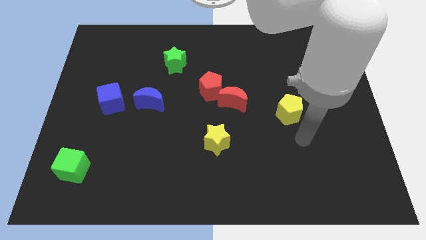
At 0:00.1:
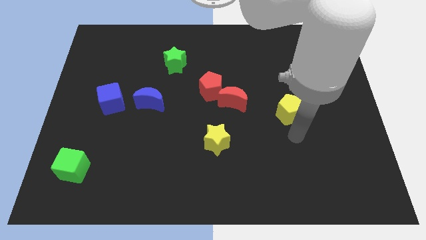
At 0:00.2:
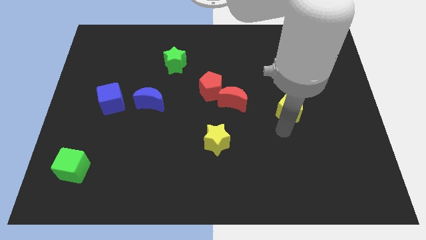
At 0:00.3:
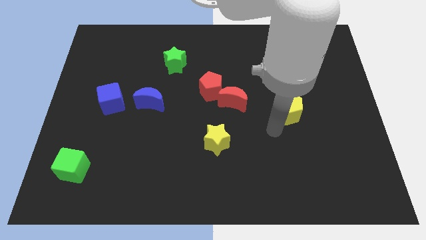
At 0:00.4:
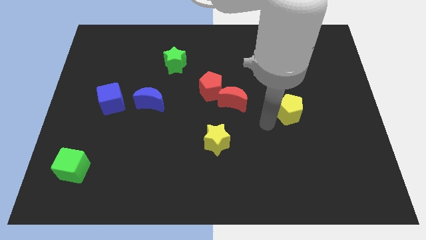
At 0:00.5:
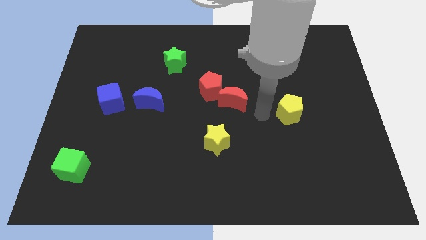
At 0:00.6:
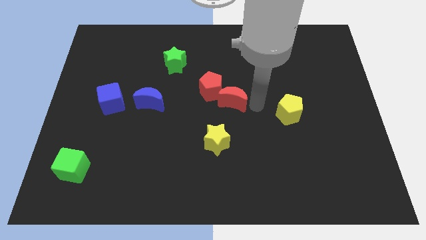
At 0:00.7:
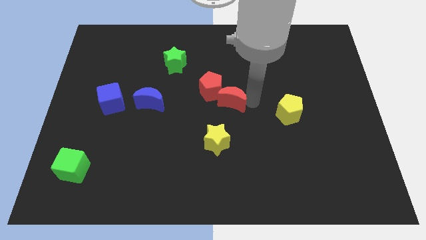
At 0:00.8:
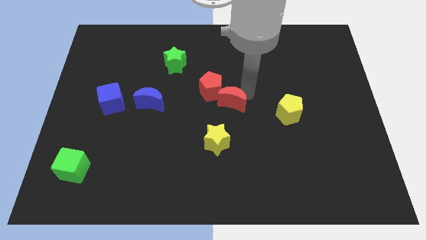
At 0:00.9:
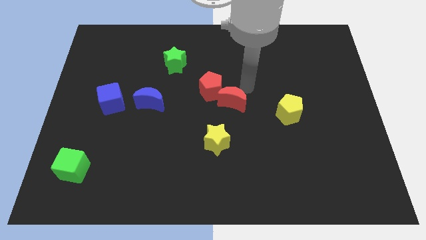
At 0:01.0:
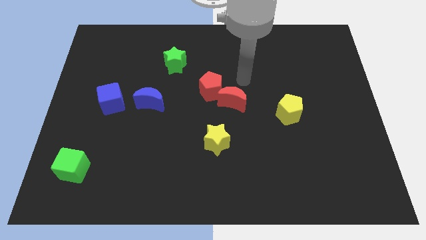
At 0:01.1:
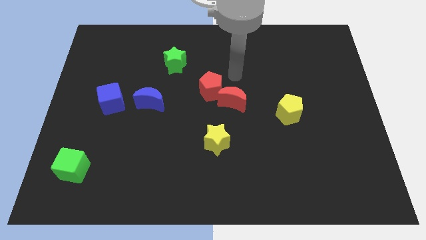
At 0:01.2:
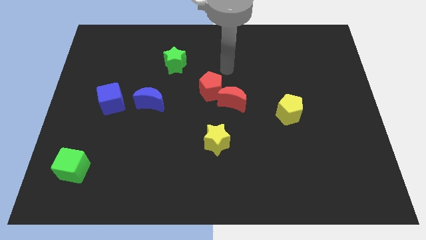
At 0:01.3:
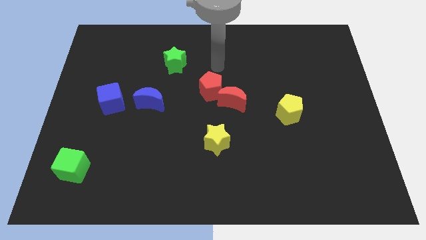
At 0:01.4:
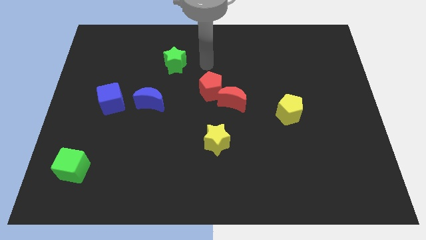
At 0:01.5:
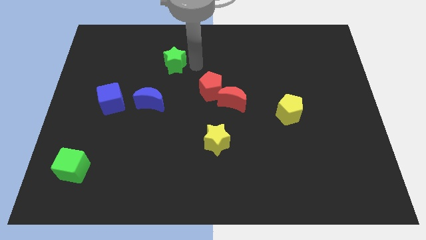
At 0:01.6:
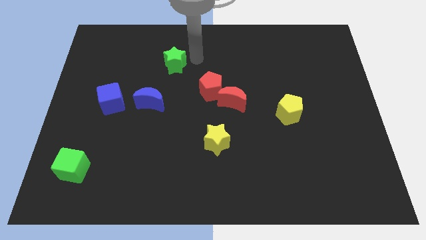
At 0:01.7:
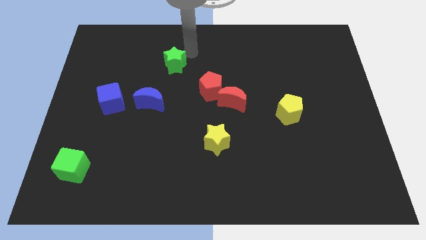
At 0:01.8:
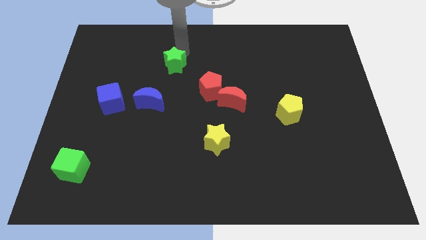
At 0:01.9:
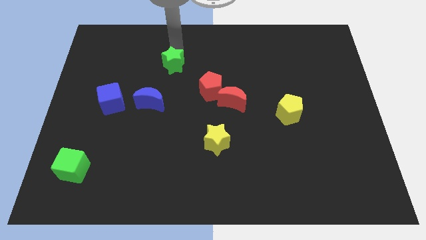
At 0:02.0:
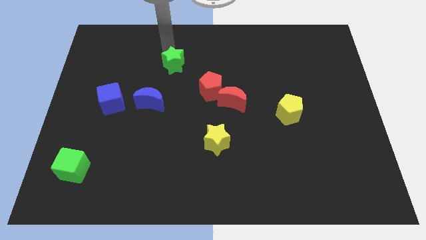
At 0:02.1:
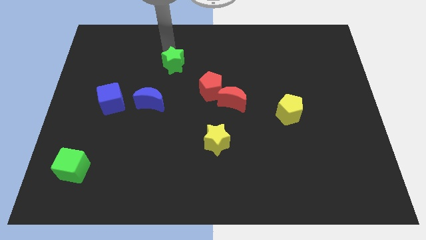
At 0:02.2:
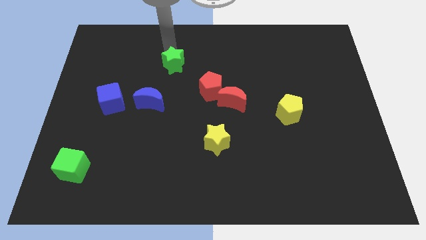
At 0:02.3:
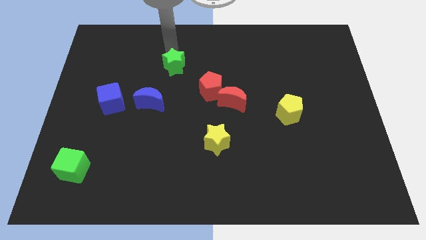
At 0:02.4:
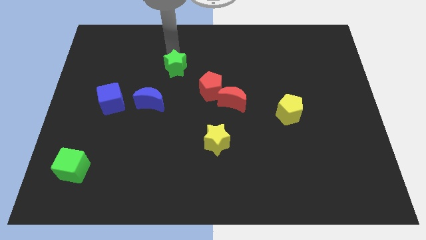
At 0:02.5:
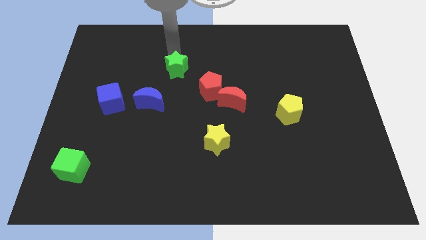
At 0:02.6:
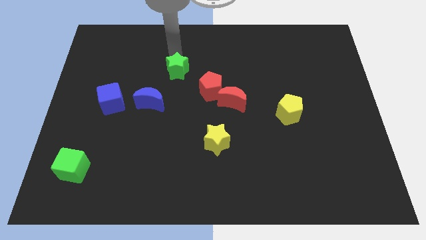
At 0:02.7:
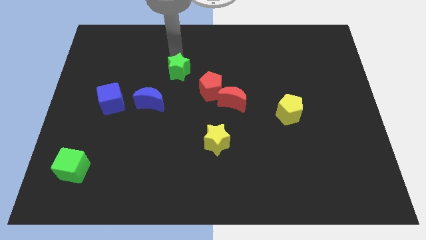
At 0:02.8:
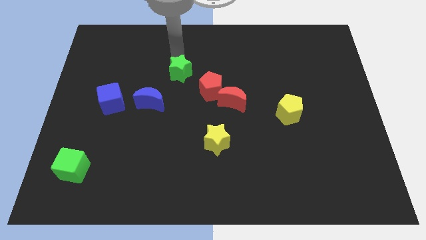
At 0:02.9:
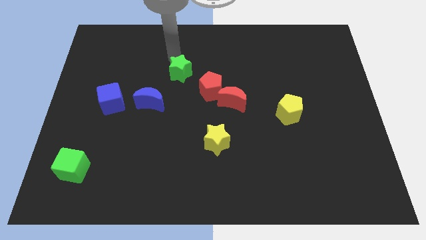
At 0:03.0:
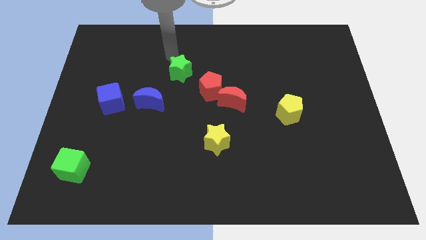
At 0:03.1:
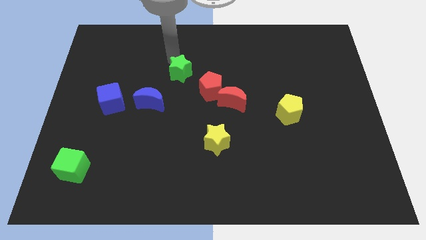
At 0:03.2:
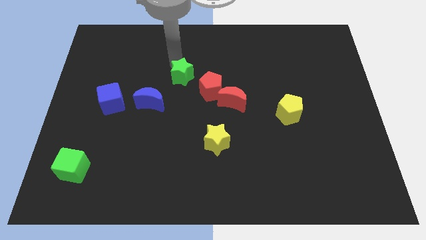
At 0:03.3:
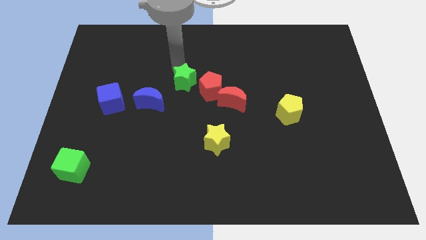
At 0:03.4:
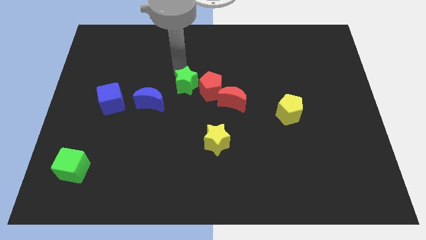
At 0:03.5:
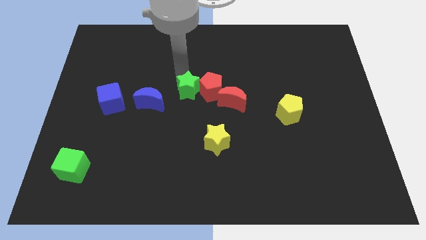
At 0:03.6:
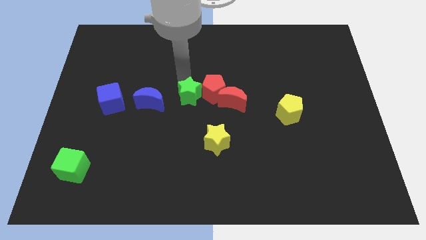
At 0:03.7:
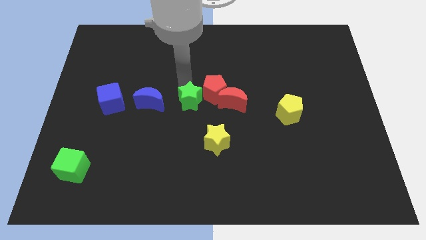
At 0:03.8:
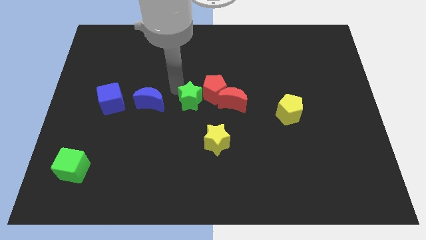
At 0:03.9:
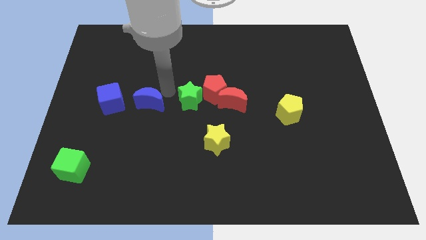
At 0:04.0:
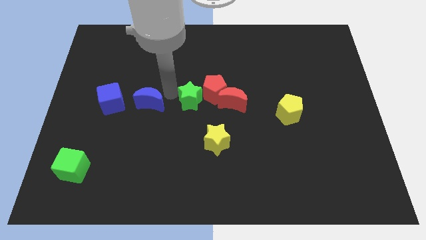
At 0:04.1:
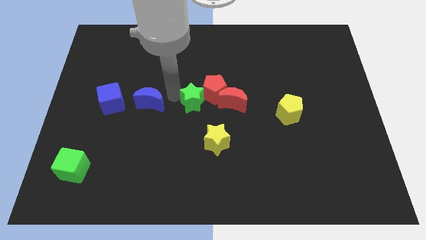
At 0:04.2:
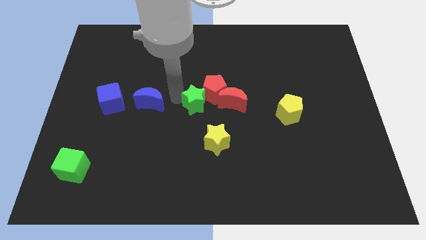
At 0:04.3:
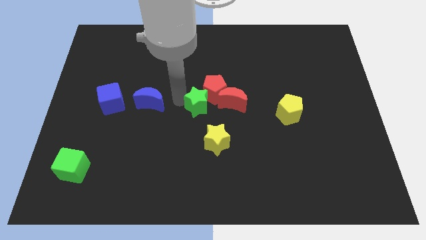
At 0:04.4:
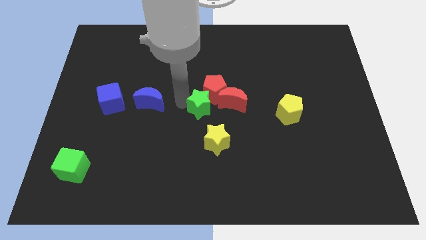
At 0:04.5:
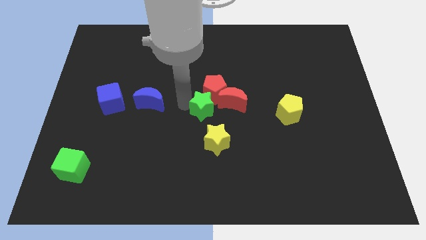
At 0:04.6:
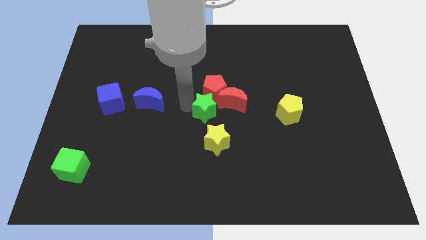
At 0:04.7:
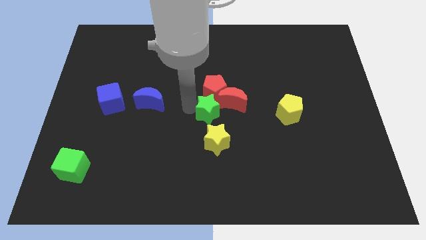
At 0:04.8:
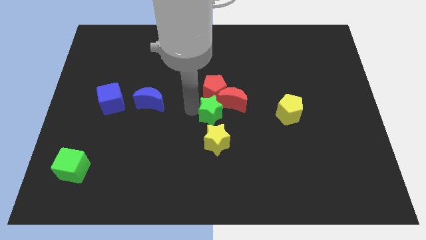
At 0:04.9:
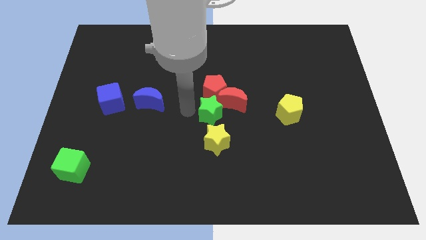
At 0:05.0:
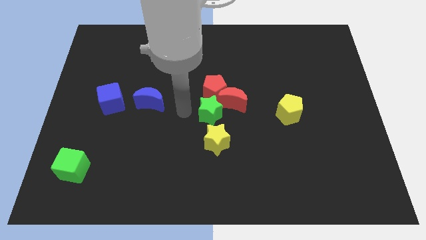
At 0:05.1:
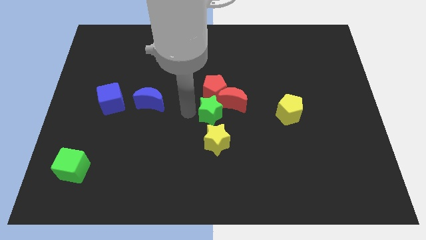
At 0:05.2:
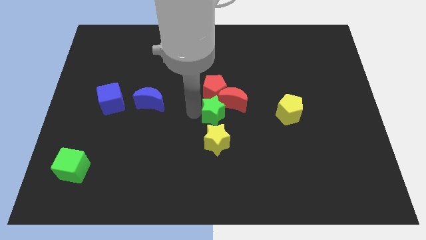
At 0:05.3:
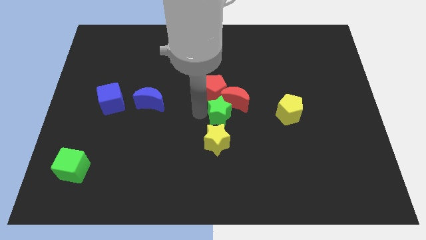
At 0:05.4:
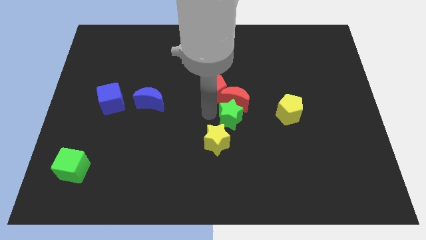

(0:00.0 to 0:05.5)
put the green star to the bottom right side of the red moon

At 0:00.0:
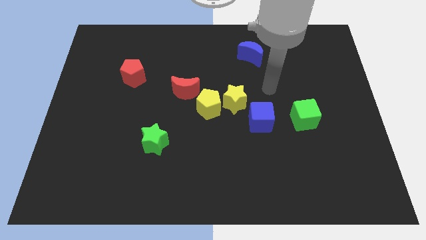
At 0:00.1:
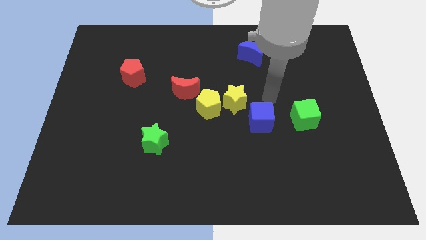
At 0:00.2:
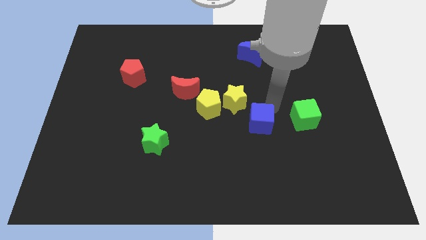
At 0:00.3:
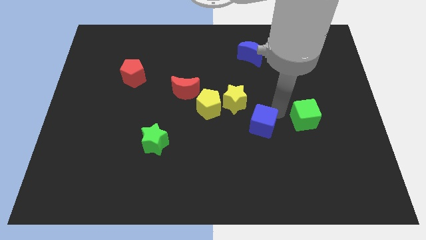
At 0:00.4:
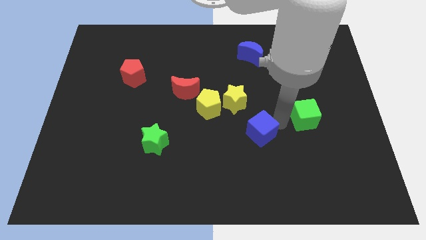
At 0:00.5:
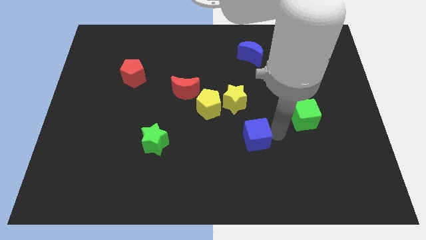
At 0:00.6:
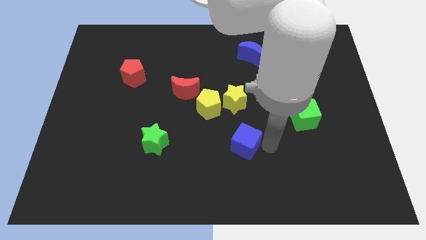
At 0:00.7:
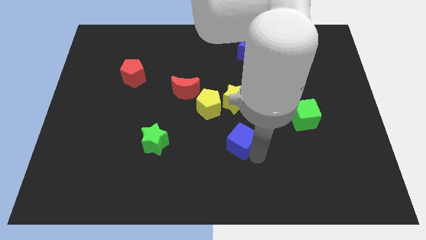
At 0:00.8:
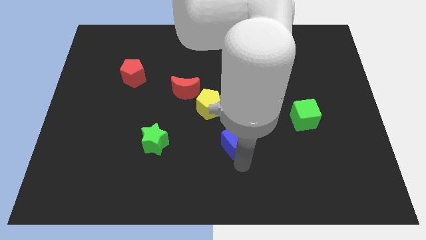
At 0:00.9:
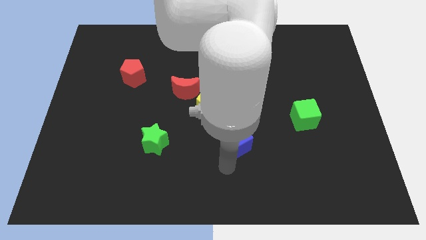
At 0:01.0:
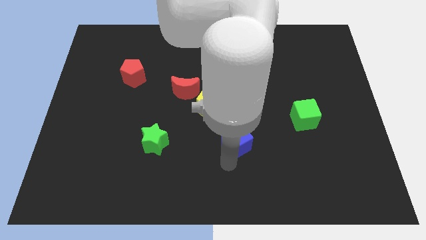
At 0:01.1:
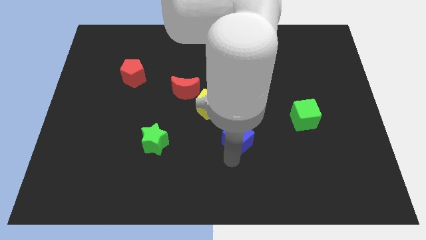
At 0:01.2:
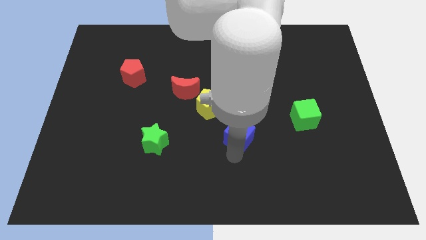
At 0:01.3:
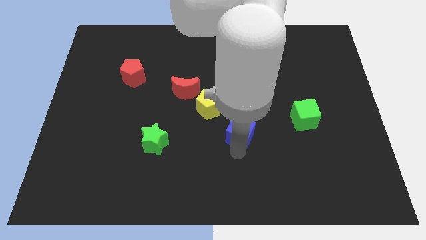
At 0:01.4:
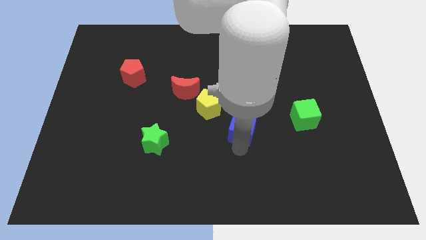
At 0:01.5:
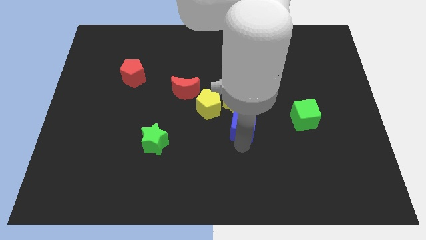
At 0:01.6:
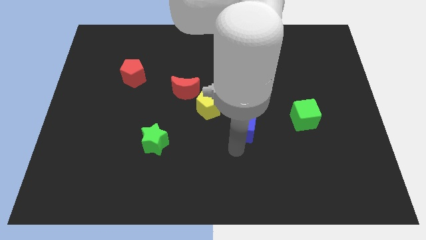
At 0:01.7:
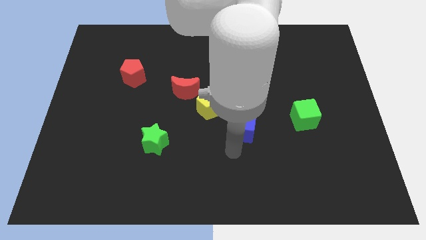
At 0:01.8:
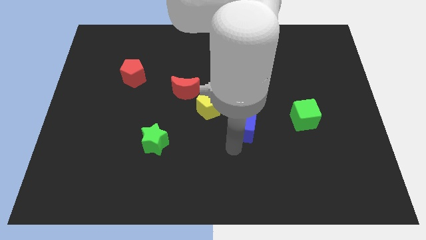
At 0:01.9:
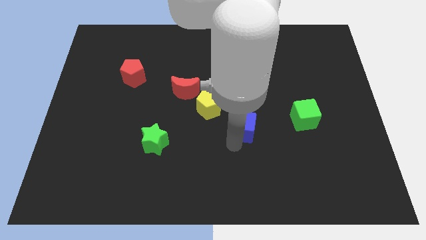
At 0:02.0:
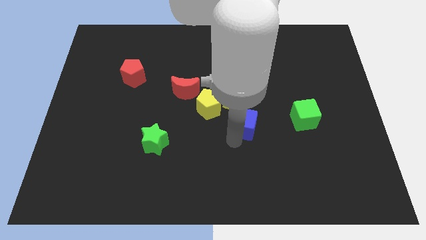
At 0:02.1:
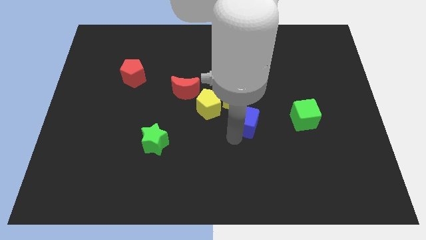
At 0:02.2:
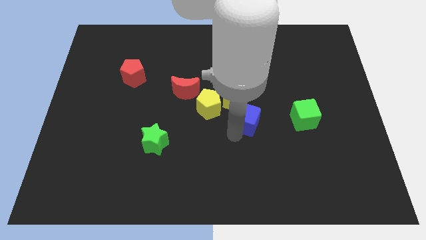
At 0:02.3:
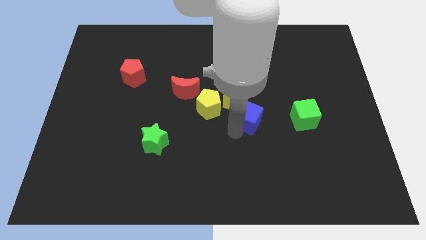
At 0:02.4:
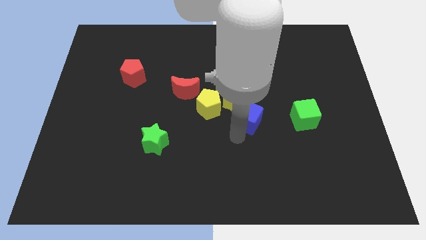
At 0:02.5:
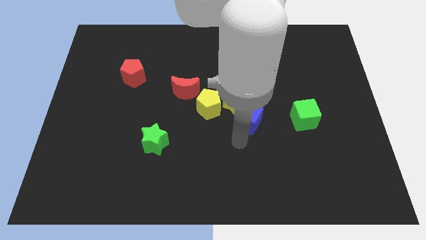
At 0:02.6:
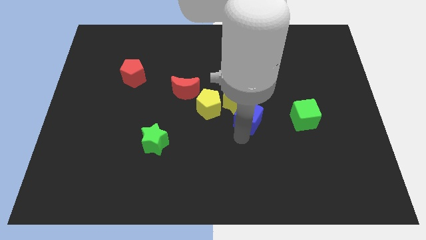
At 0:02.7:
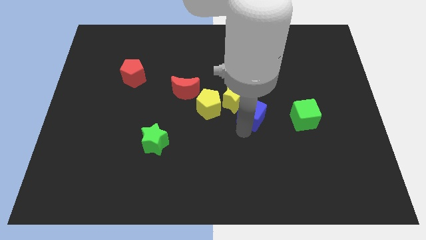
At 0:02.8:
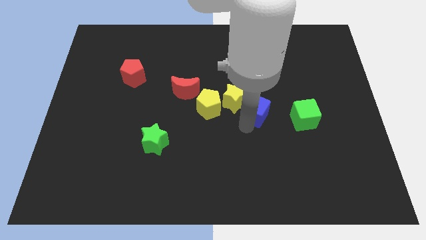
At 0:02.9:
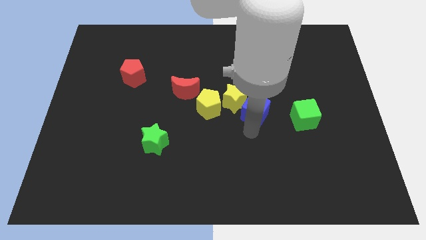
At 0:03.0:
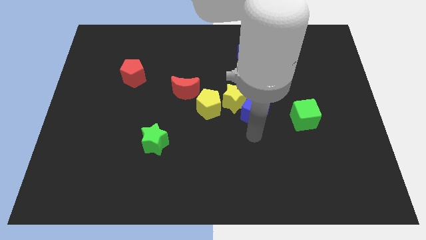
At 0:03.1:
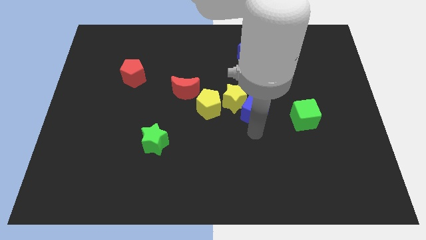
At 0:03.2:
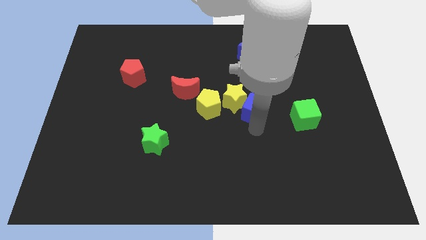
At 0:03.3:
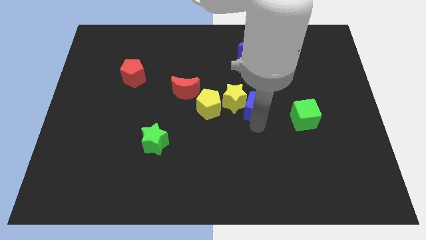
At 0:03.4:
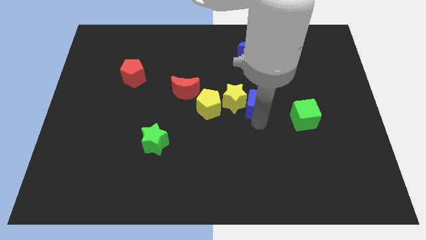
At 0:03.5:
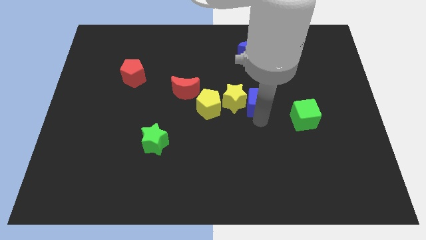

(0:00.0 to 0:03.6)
slide the blue cube to the top right side of the yellow star
